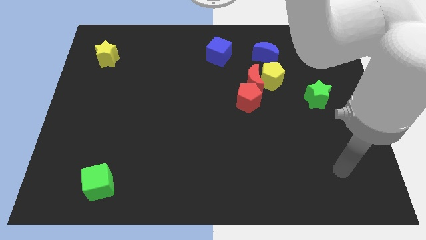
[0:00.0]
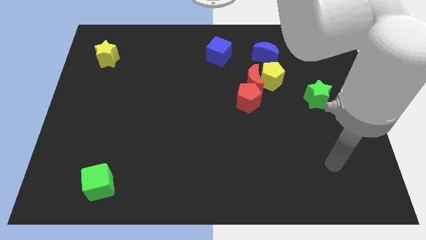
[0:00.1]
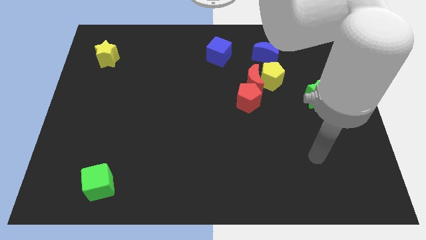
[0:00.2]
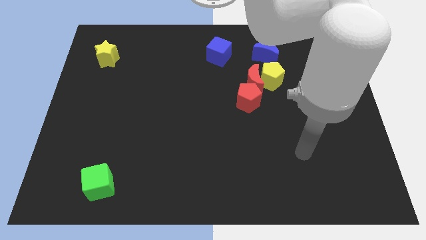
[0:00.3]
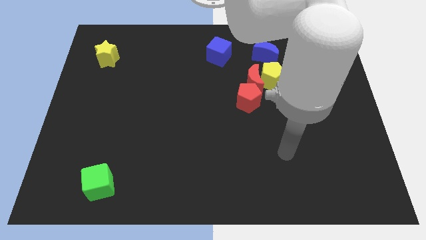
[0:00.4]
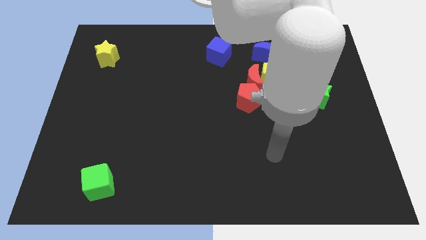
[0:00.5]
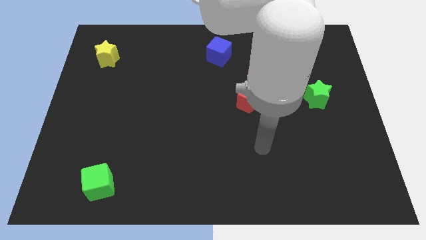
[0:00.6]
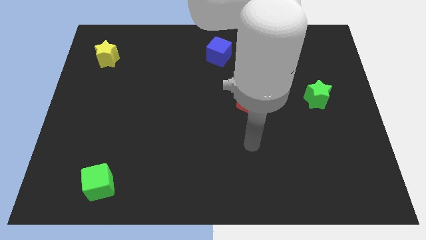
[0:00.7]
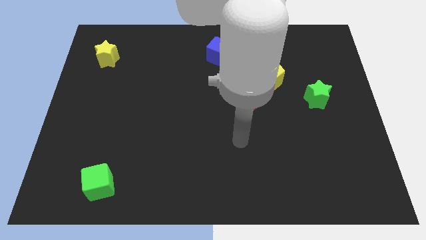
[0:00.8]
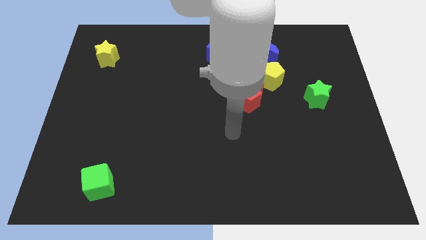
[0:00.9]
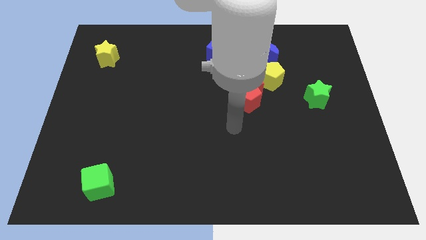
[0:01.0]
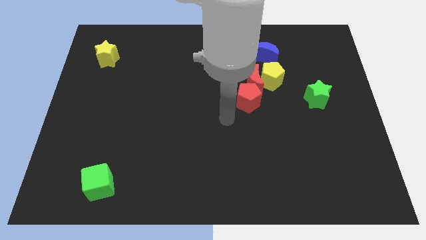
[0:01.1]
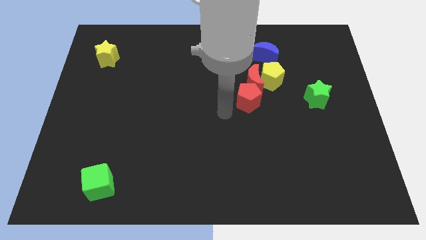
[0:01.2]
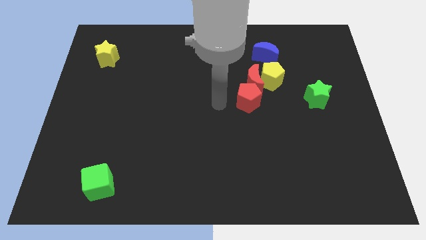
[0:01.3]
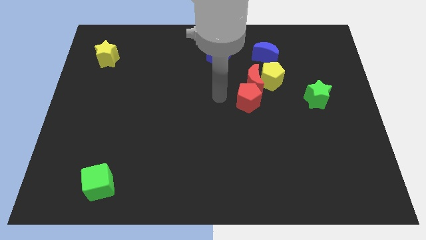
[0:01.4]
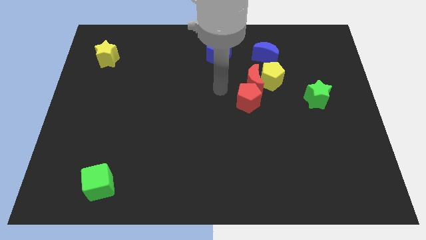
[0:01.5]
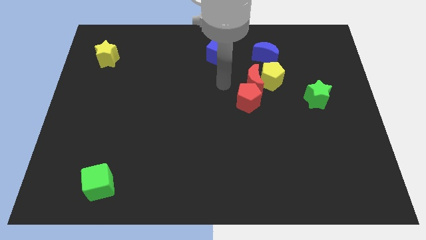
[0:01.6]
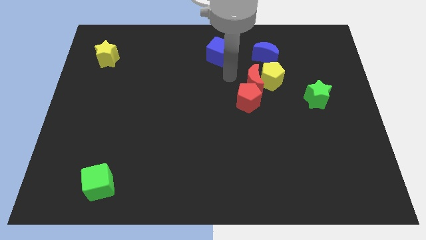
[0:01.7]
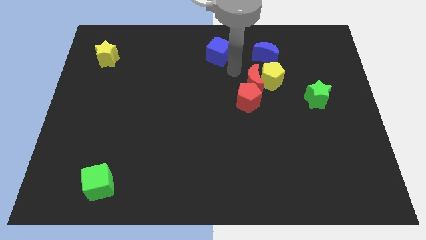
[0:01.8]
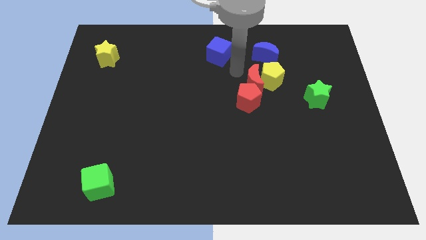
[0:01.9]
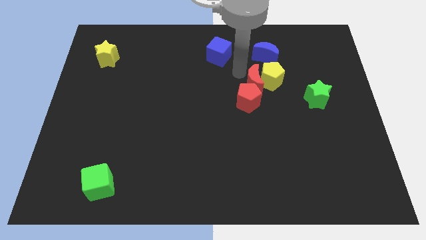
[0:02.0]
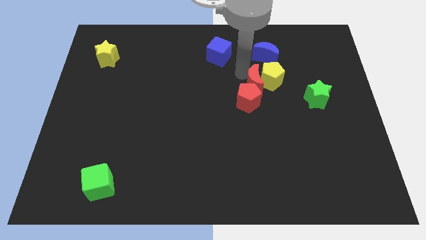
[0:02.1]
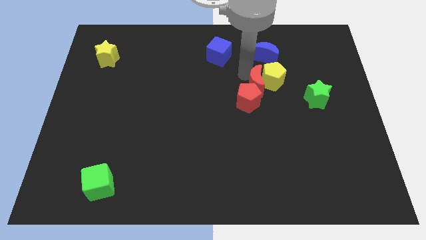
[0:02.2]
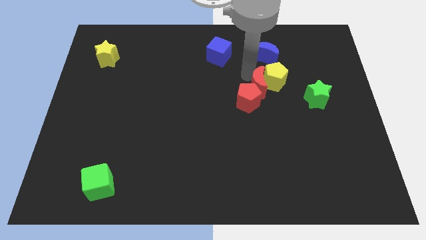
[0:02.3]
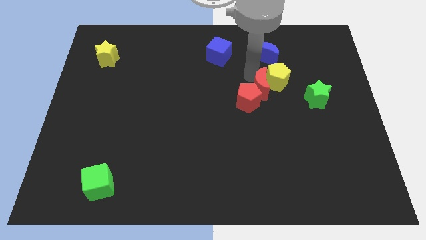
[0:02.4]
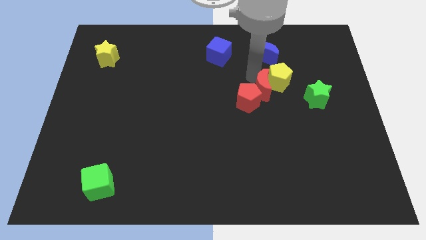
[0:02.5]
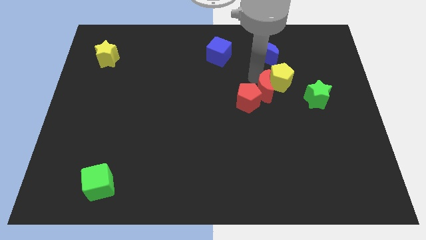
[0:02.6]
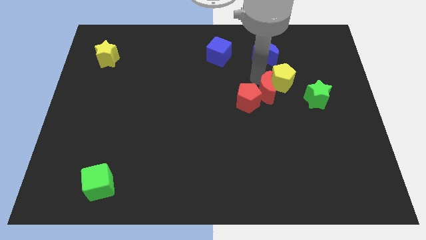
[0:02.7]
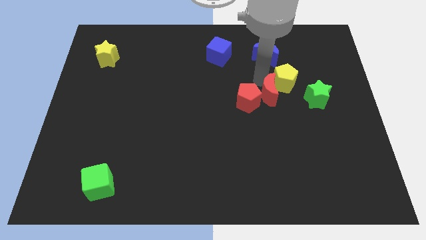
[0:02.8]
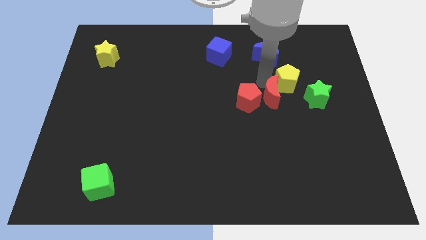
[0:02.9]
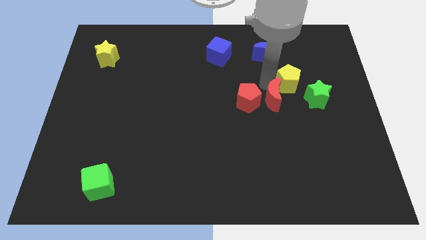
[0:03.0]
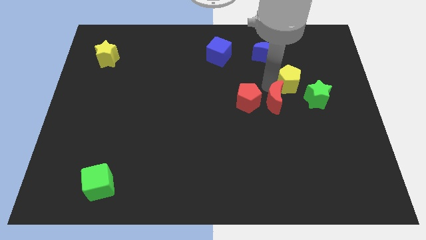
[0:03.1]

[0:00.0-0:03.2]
push the red moon a bit down and then to the right

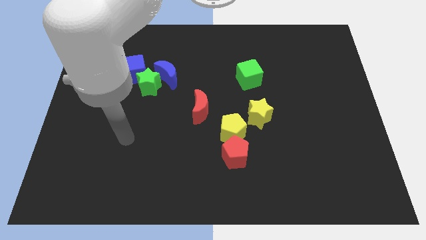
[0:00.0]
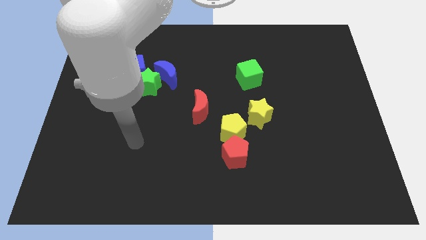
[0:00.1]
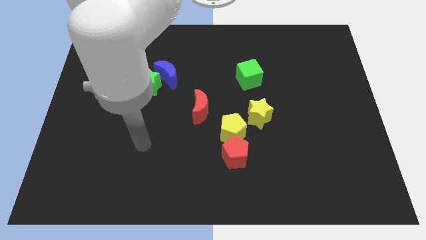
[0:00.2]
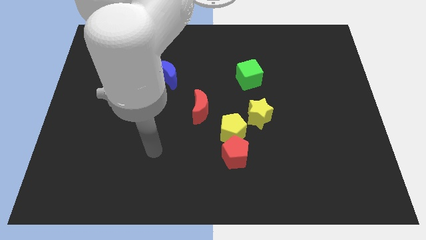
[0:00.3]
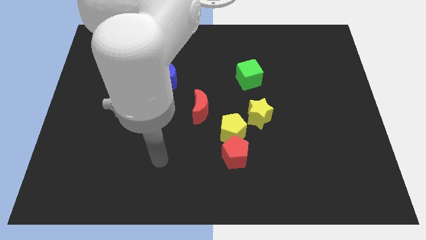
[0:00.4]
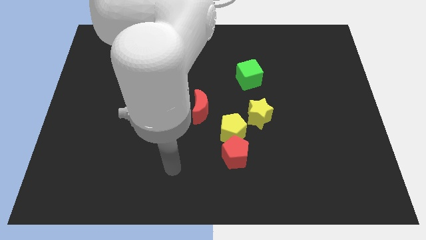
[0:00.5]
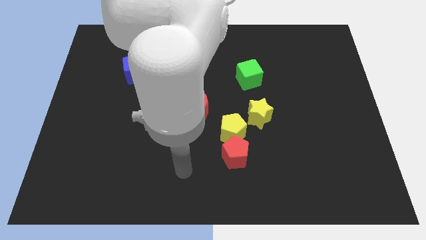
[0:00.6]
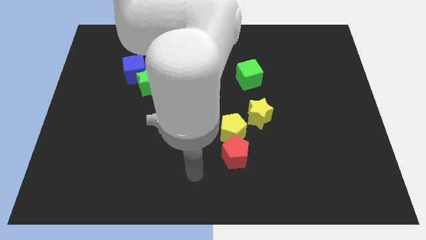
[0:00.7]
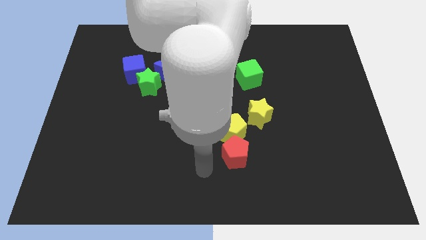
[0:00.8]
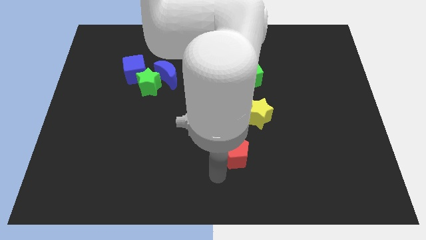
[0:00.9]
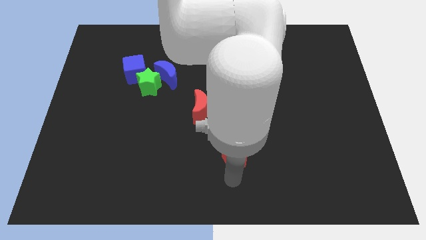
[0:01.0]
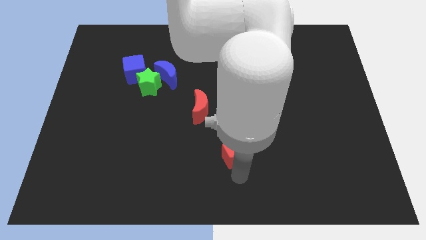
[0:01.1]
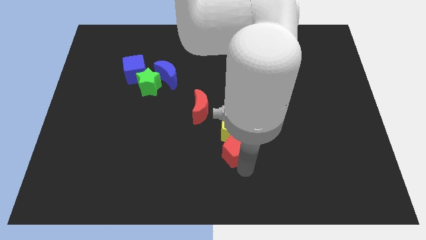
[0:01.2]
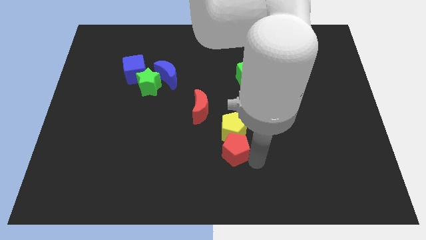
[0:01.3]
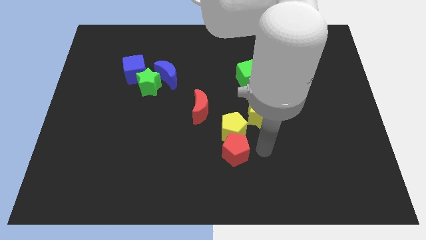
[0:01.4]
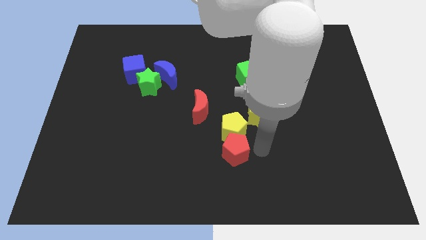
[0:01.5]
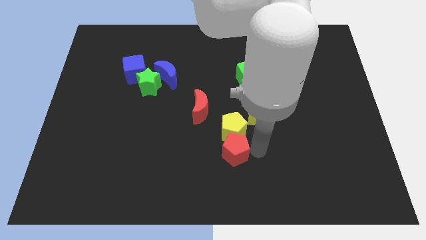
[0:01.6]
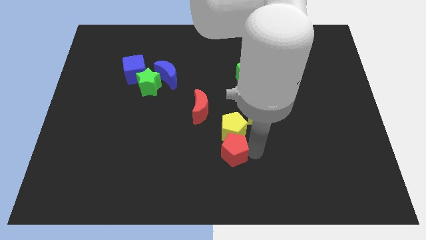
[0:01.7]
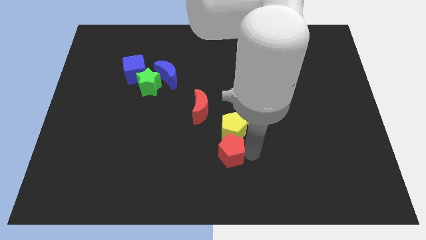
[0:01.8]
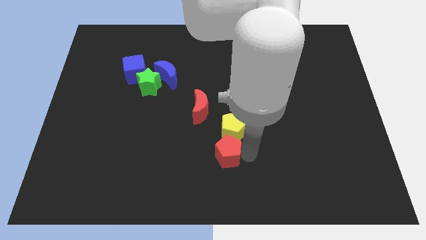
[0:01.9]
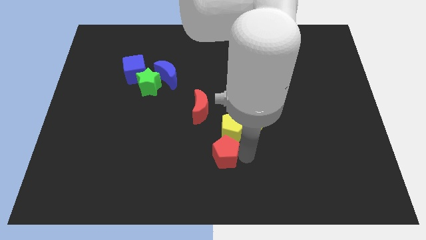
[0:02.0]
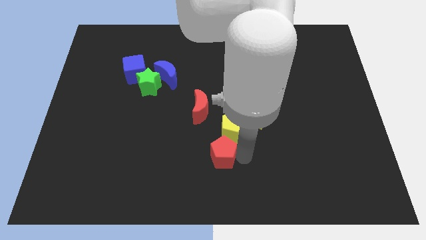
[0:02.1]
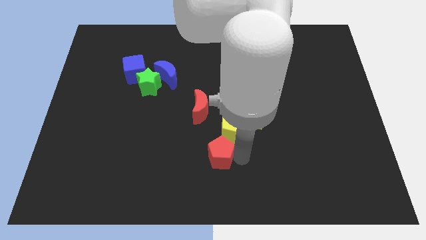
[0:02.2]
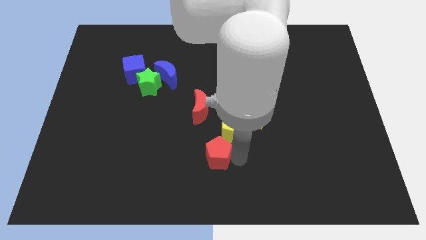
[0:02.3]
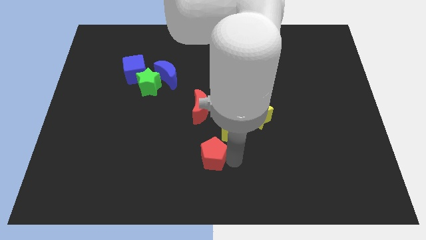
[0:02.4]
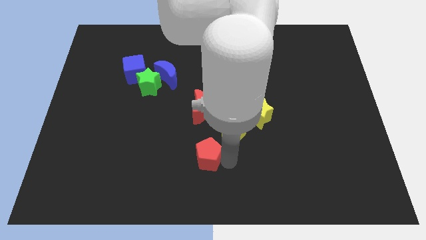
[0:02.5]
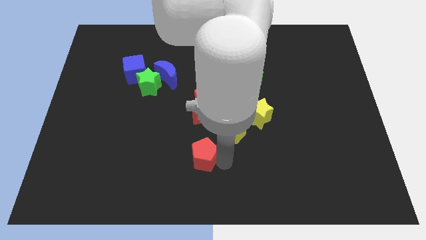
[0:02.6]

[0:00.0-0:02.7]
push the red pentagon somewhat left

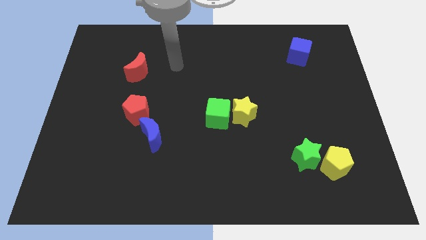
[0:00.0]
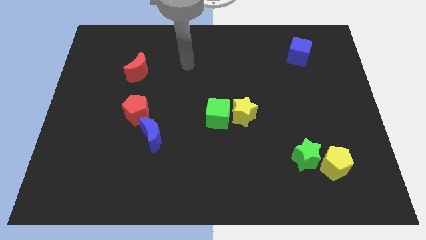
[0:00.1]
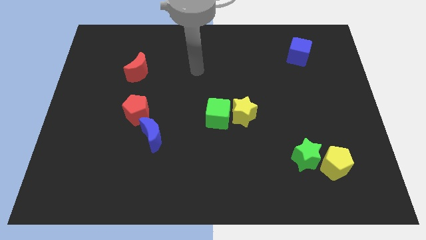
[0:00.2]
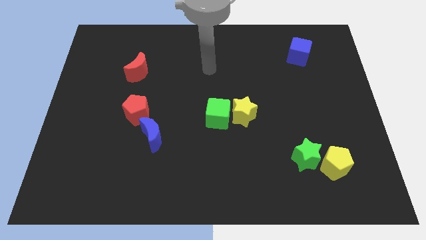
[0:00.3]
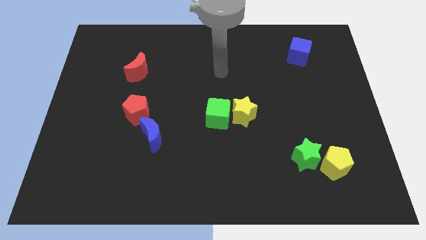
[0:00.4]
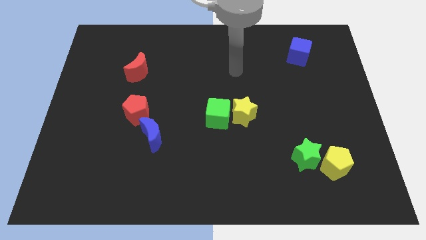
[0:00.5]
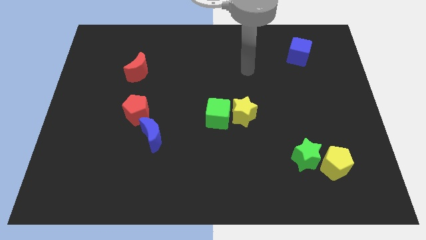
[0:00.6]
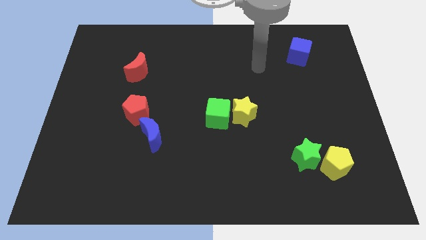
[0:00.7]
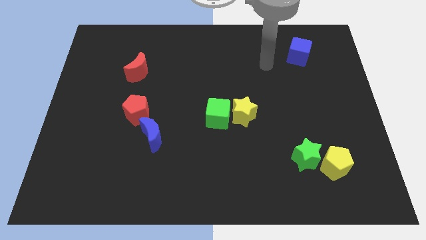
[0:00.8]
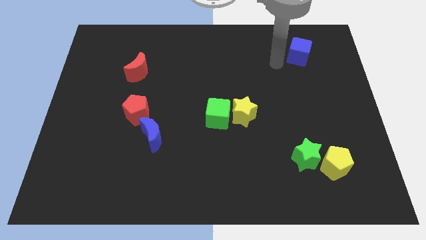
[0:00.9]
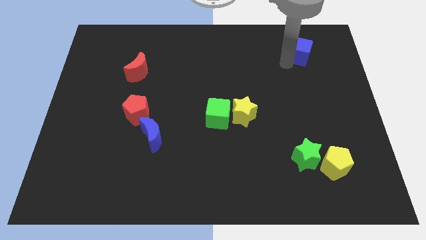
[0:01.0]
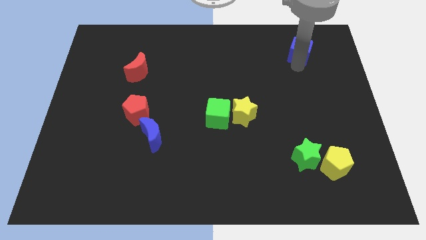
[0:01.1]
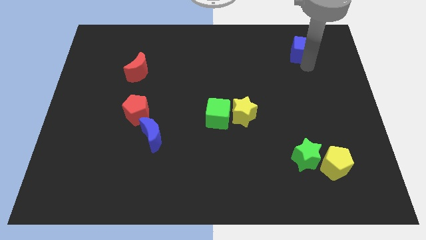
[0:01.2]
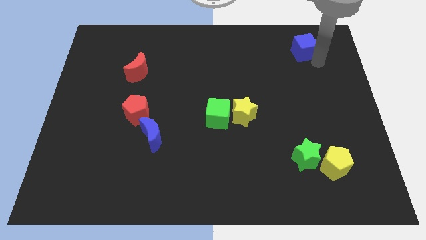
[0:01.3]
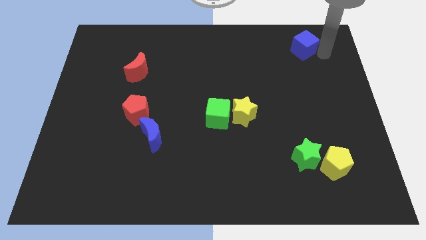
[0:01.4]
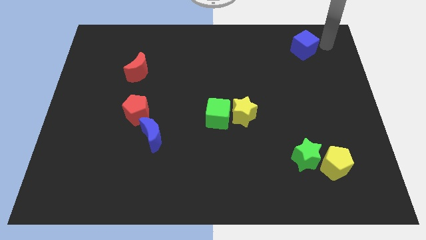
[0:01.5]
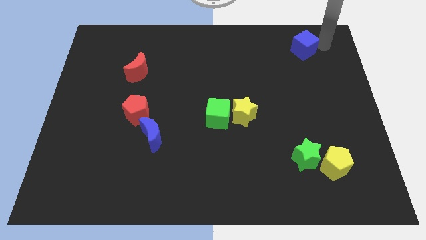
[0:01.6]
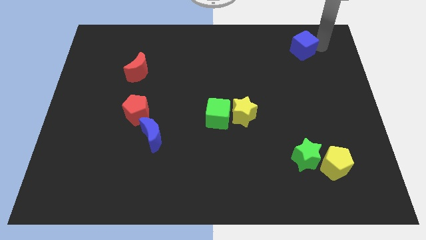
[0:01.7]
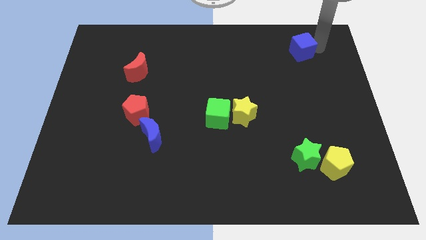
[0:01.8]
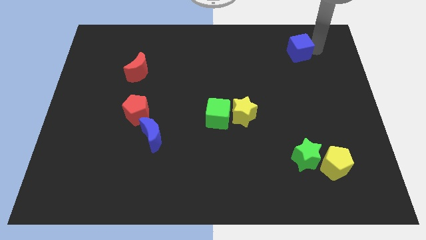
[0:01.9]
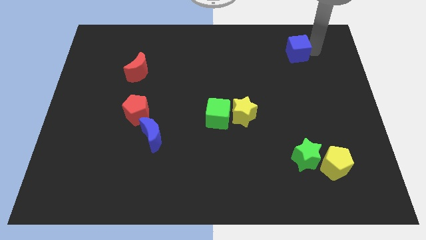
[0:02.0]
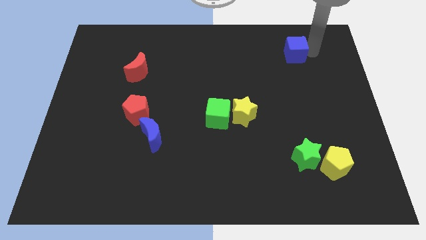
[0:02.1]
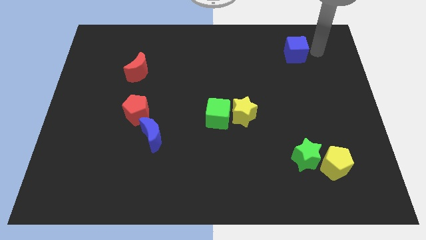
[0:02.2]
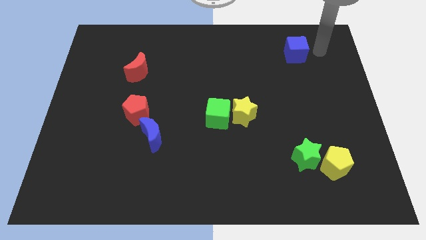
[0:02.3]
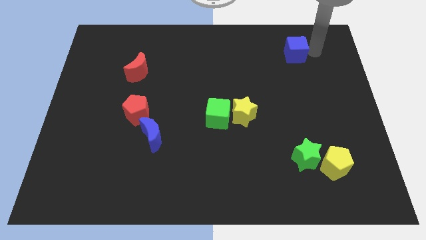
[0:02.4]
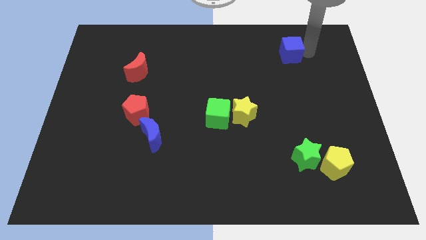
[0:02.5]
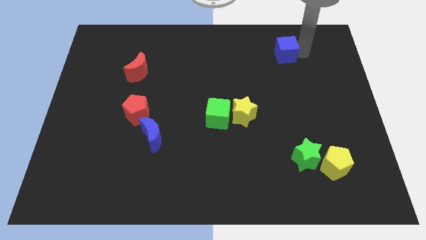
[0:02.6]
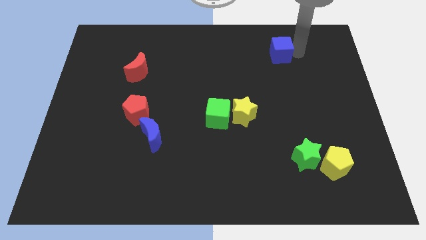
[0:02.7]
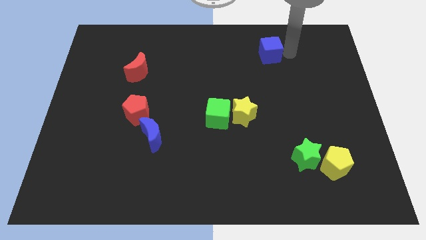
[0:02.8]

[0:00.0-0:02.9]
slightly slide the blue cube to the left
